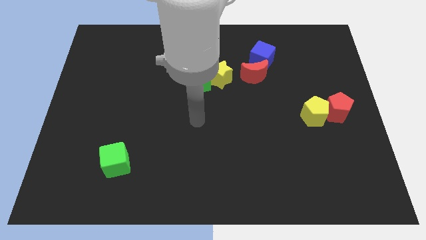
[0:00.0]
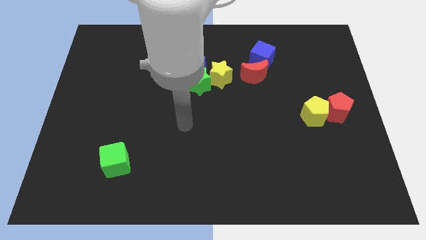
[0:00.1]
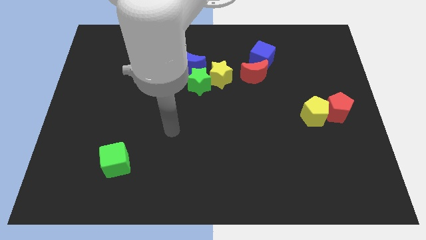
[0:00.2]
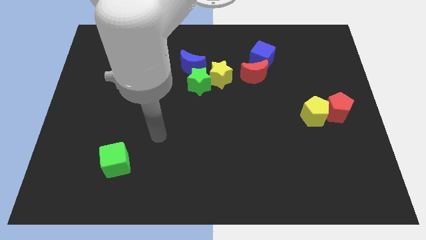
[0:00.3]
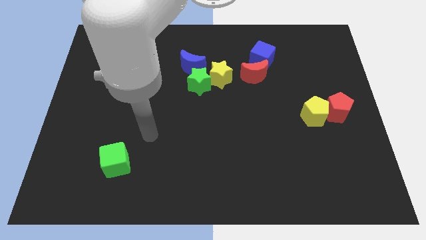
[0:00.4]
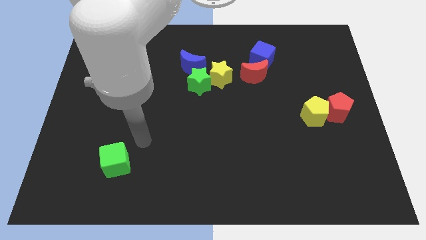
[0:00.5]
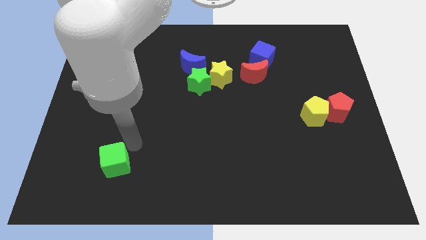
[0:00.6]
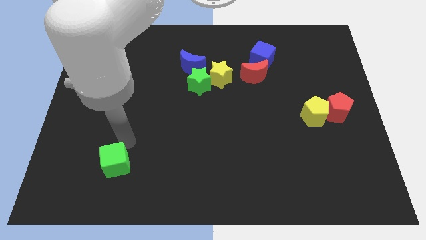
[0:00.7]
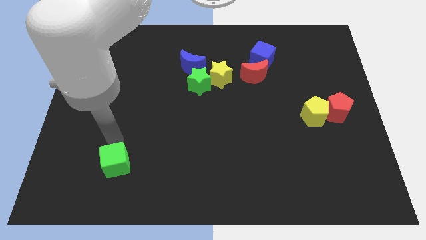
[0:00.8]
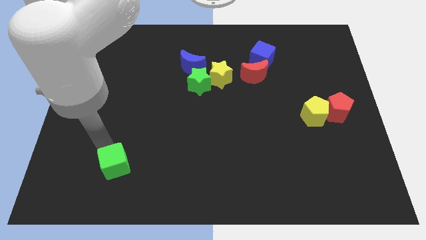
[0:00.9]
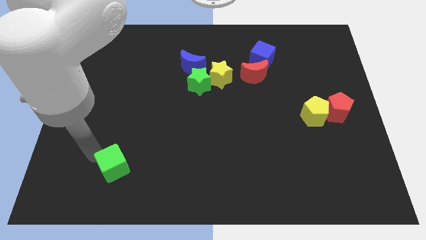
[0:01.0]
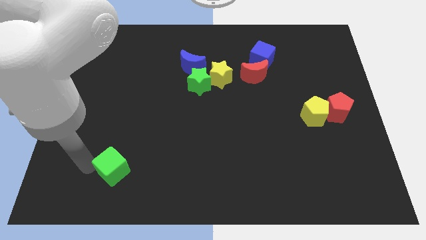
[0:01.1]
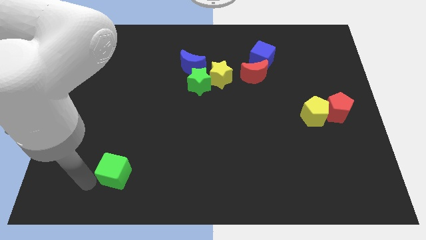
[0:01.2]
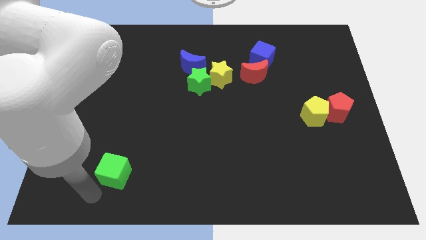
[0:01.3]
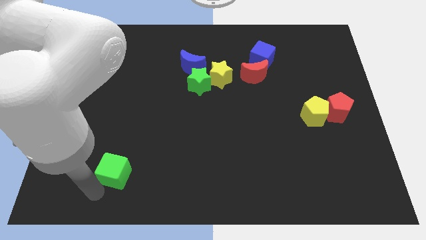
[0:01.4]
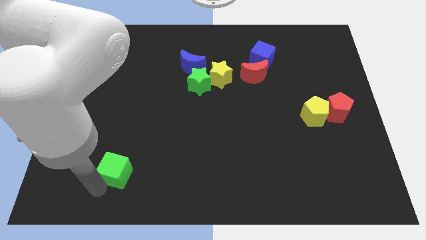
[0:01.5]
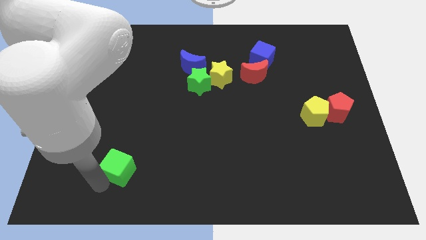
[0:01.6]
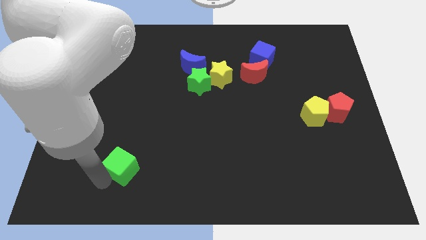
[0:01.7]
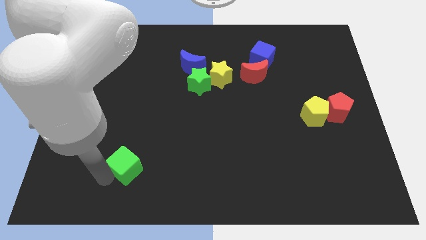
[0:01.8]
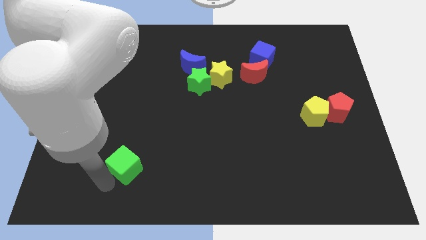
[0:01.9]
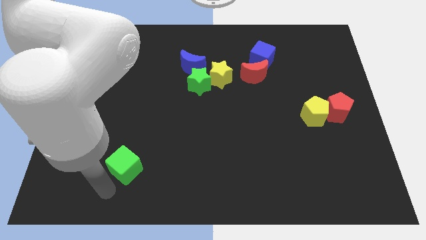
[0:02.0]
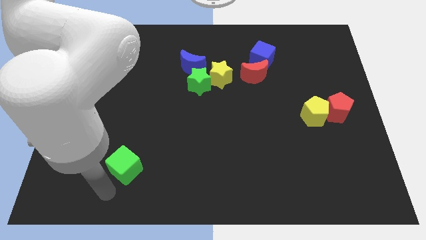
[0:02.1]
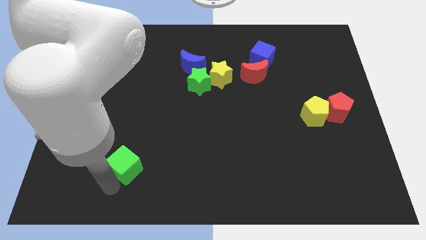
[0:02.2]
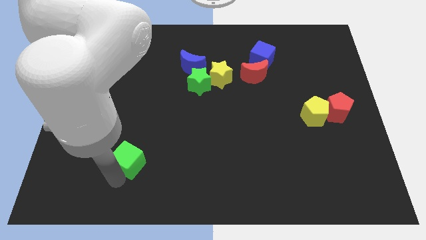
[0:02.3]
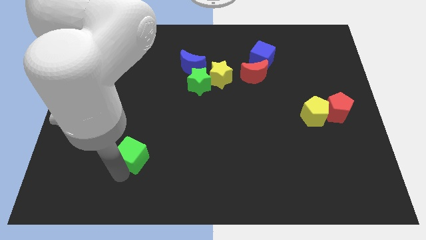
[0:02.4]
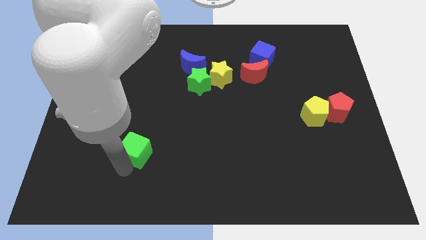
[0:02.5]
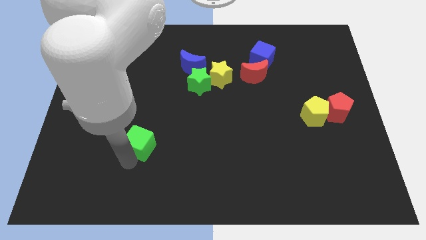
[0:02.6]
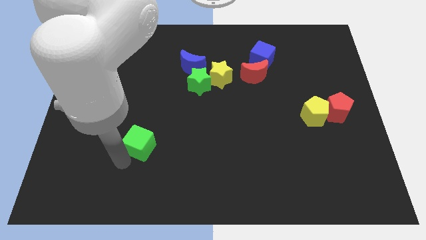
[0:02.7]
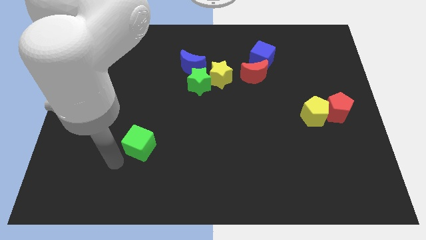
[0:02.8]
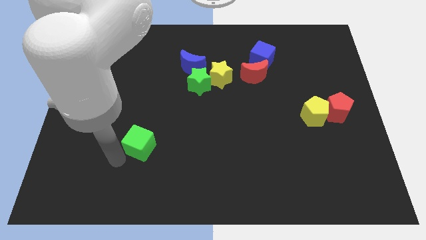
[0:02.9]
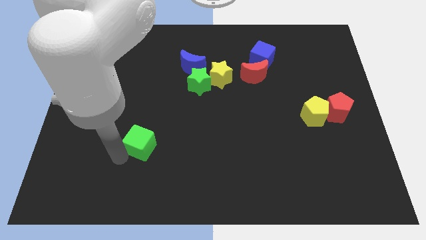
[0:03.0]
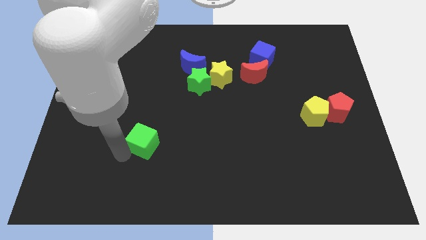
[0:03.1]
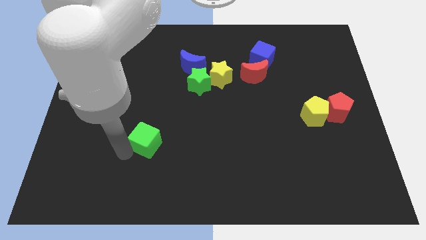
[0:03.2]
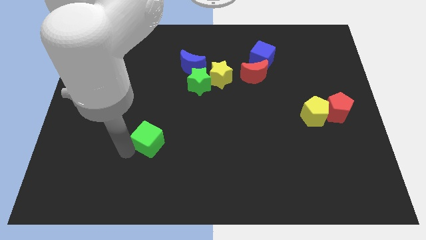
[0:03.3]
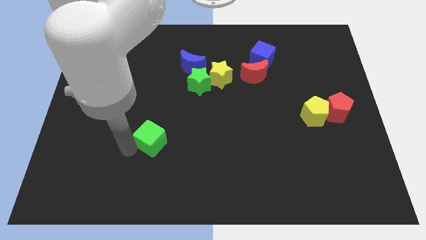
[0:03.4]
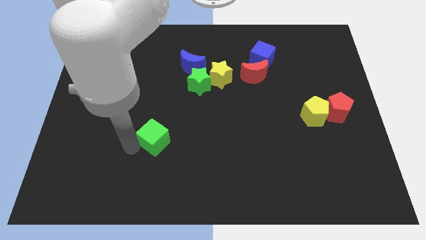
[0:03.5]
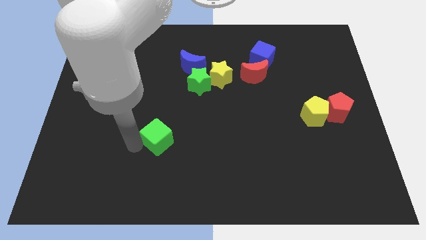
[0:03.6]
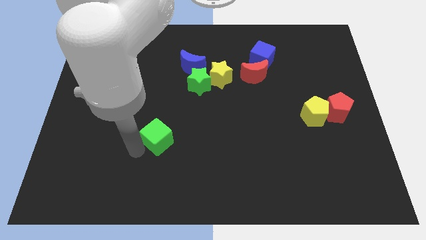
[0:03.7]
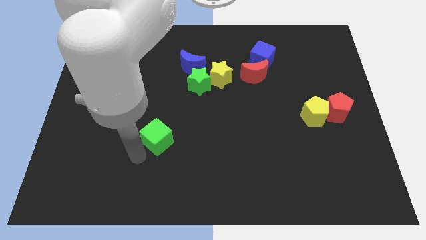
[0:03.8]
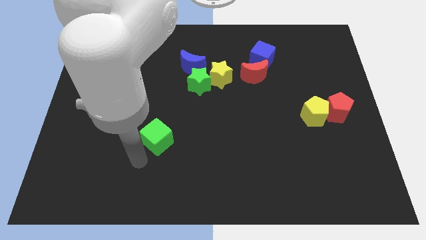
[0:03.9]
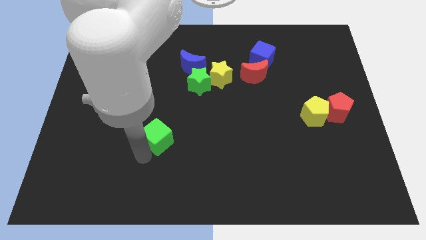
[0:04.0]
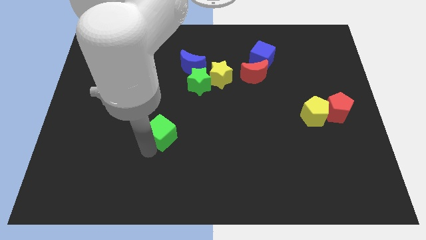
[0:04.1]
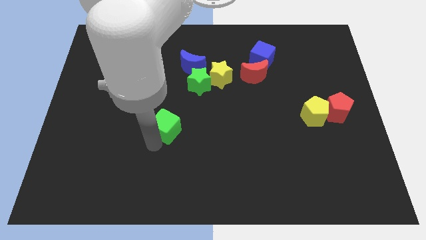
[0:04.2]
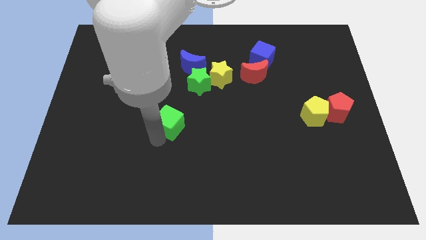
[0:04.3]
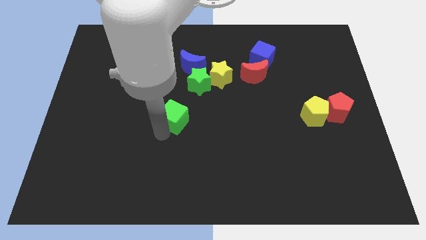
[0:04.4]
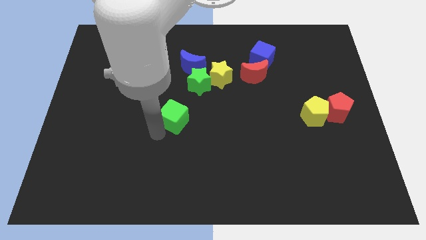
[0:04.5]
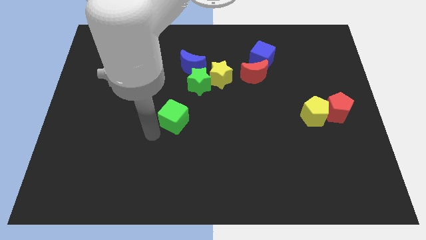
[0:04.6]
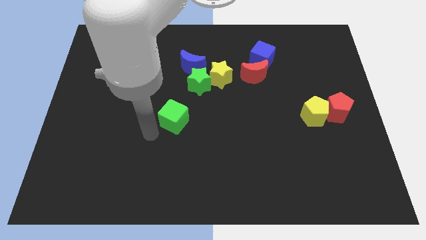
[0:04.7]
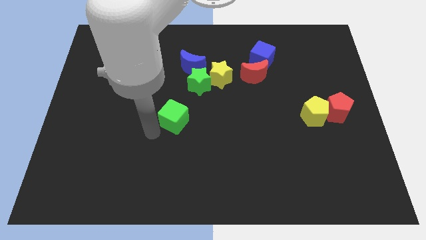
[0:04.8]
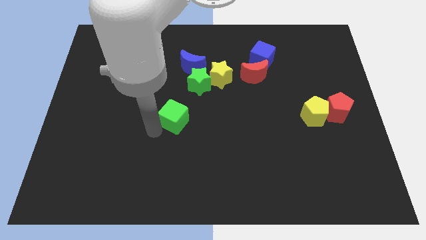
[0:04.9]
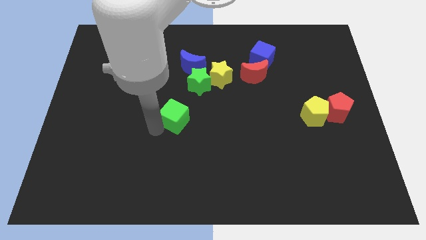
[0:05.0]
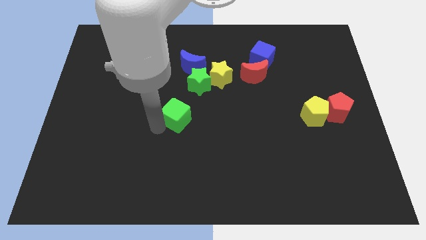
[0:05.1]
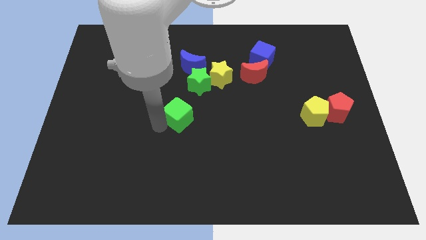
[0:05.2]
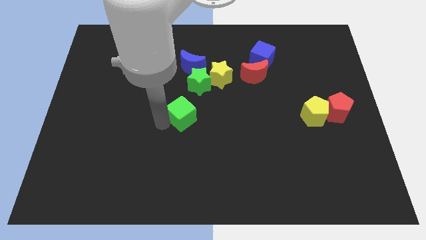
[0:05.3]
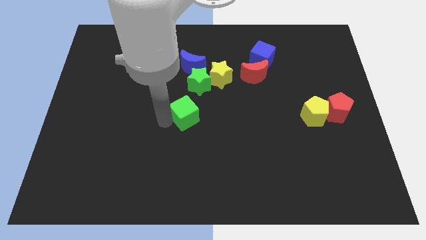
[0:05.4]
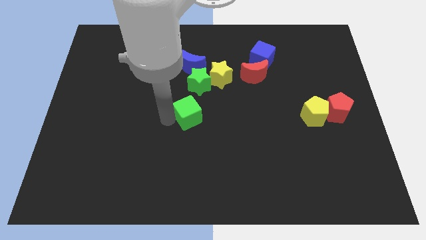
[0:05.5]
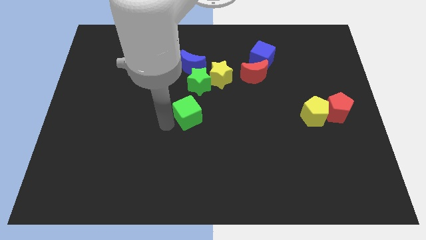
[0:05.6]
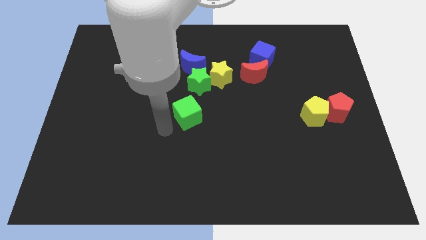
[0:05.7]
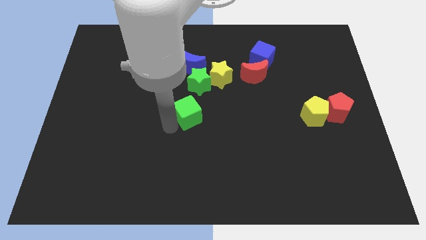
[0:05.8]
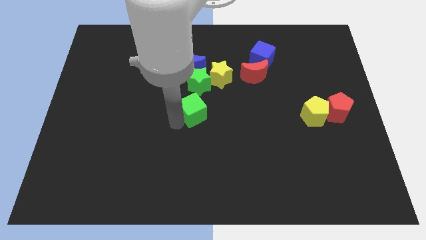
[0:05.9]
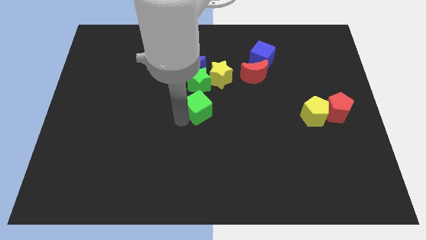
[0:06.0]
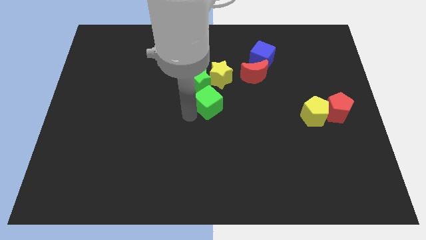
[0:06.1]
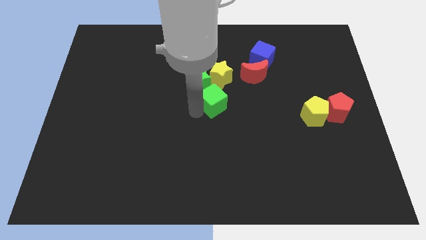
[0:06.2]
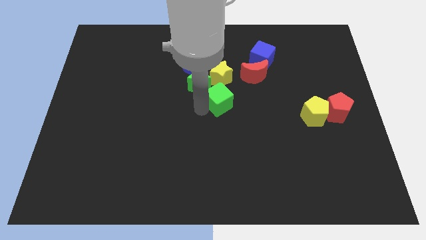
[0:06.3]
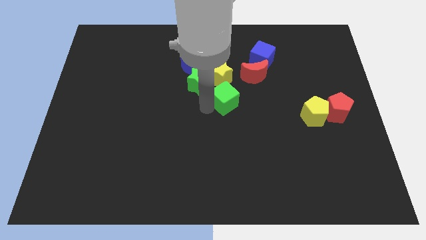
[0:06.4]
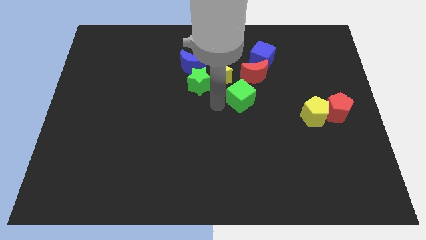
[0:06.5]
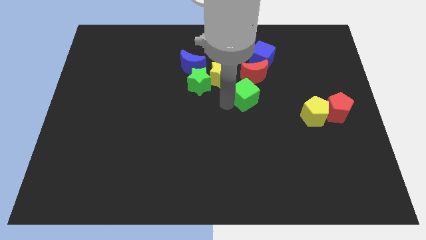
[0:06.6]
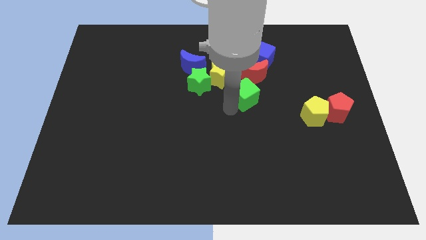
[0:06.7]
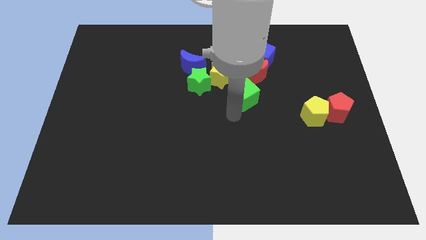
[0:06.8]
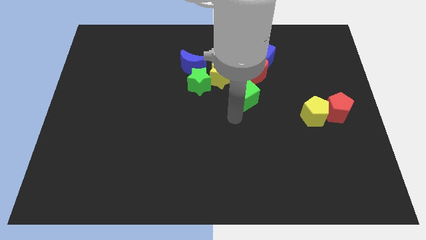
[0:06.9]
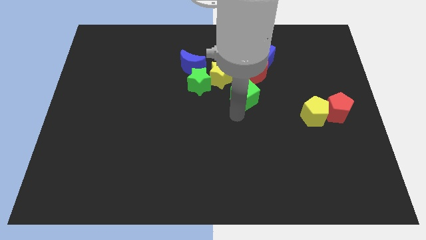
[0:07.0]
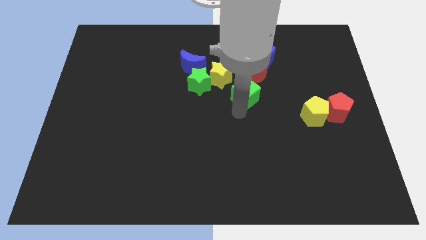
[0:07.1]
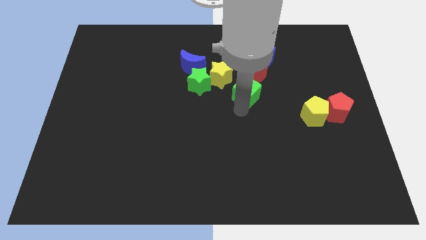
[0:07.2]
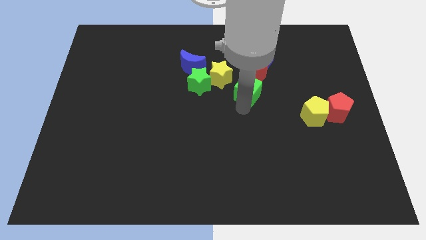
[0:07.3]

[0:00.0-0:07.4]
slide the green cube next to the red moon

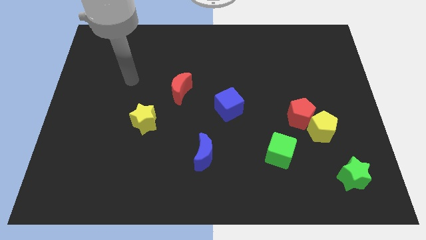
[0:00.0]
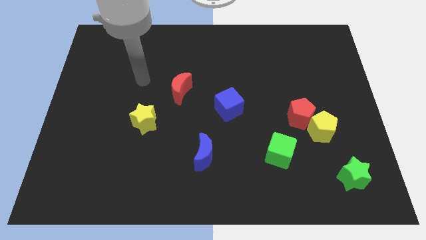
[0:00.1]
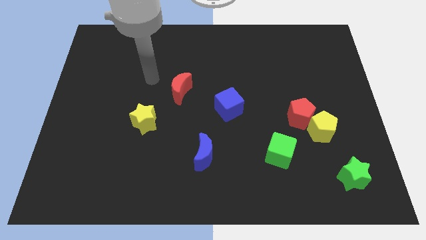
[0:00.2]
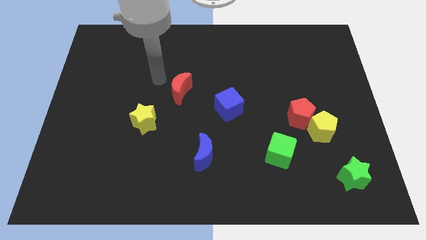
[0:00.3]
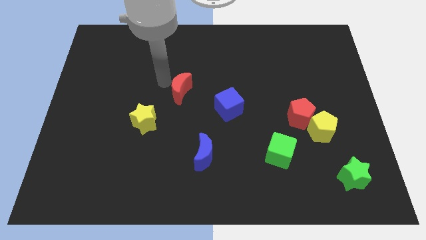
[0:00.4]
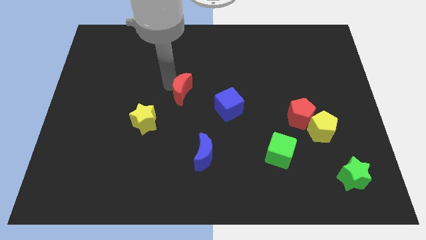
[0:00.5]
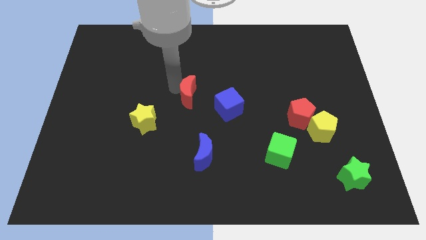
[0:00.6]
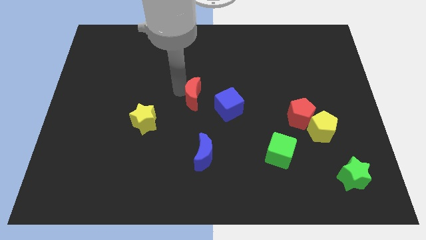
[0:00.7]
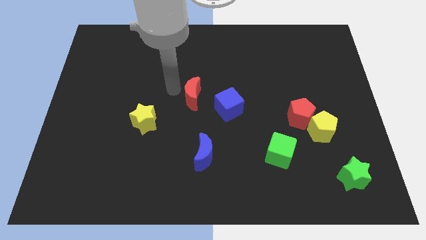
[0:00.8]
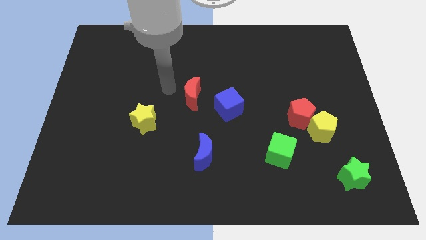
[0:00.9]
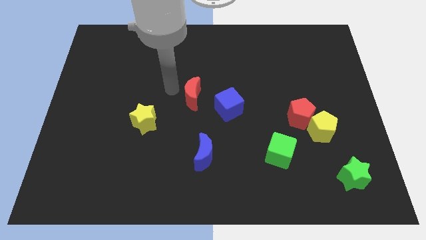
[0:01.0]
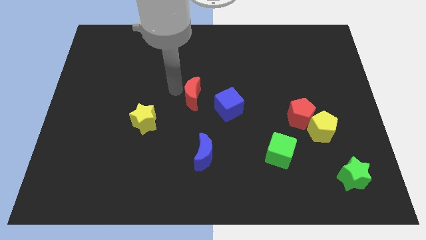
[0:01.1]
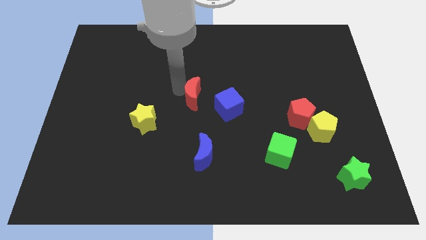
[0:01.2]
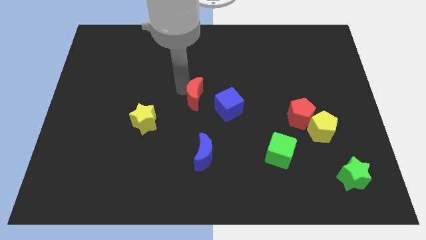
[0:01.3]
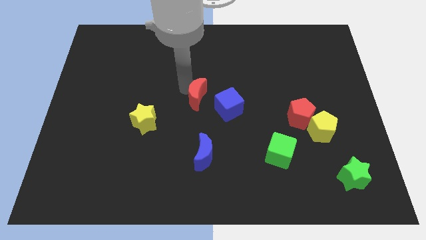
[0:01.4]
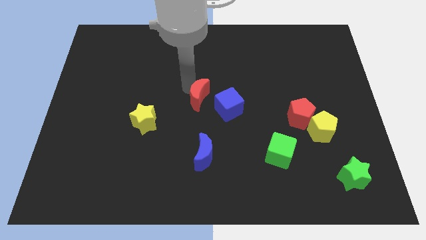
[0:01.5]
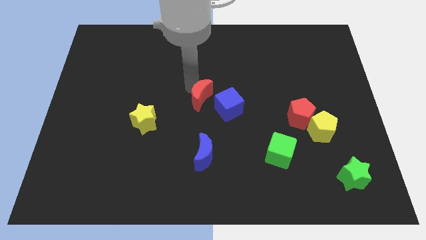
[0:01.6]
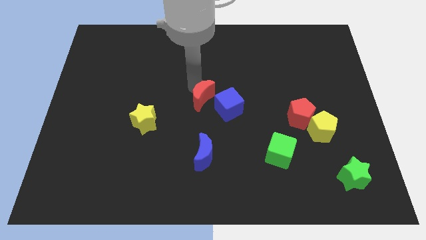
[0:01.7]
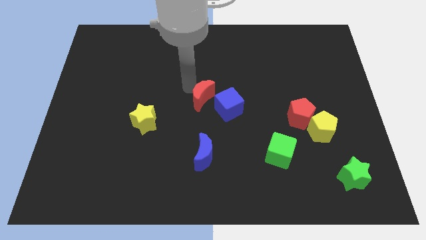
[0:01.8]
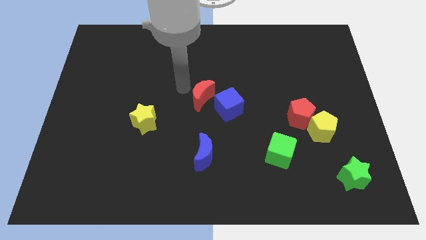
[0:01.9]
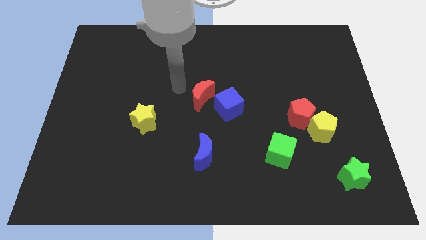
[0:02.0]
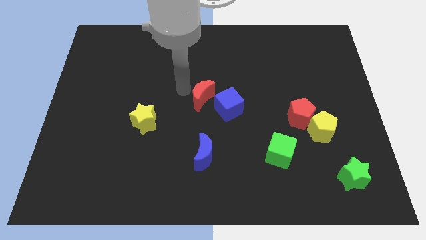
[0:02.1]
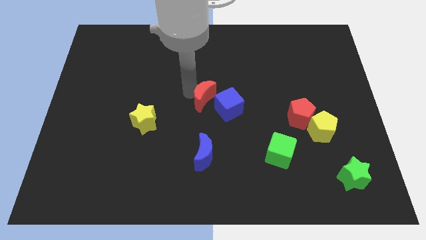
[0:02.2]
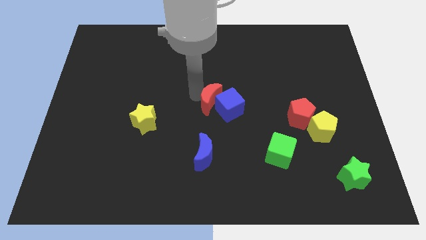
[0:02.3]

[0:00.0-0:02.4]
put the red moon to the blue cube
